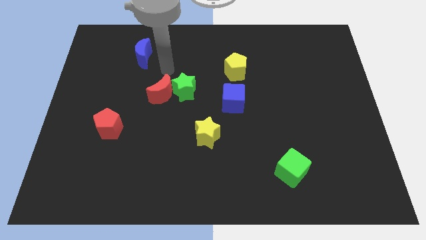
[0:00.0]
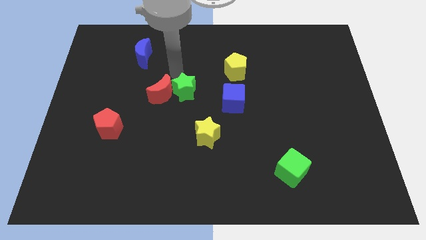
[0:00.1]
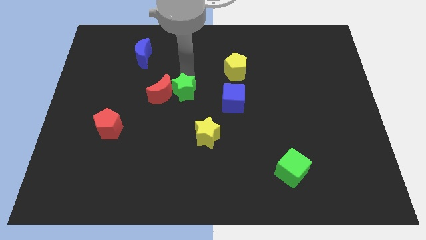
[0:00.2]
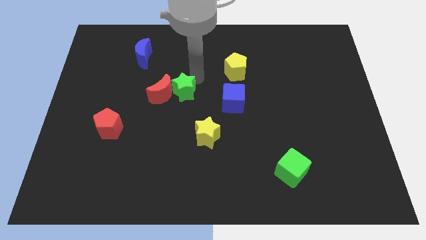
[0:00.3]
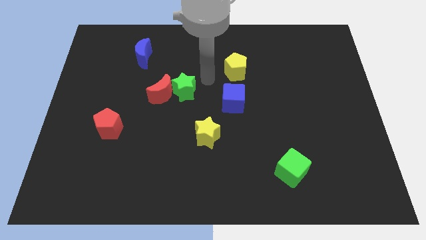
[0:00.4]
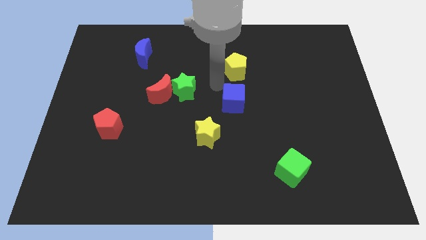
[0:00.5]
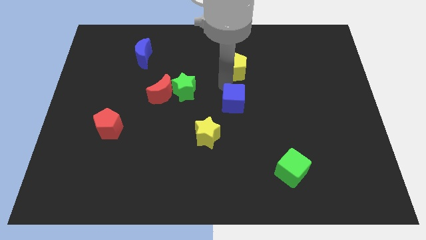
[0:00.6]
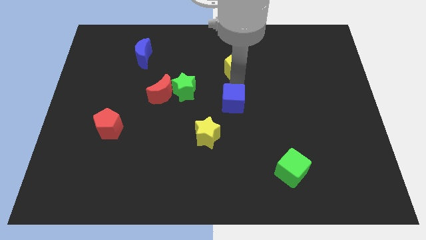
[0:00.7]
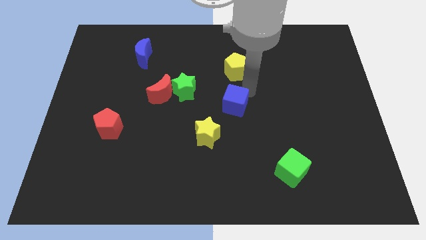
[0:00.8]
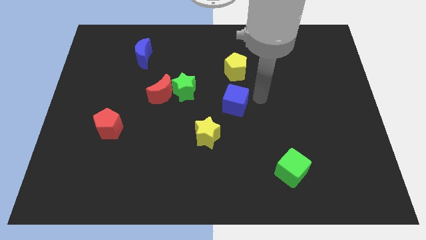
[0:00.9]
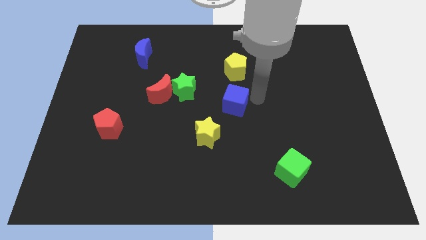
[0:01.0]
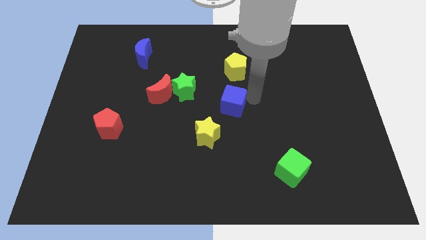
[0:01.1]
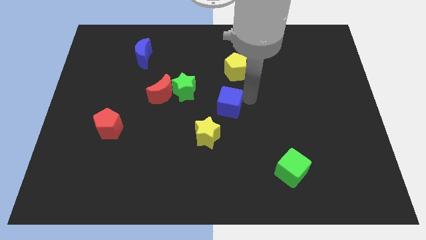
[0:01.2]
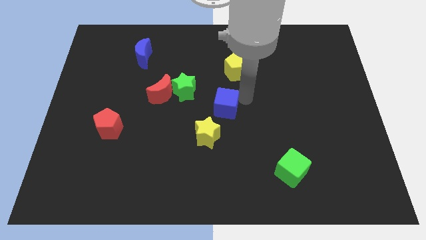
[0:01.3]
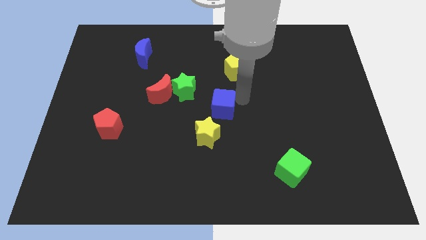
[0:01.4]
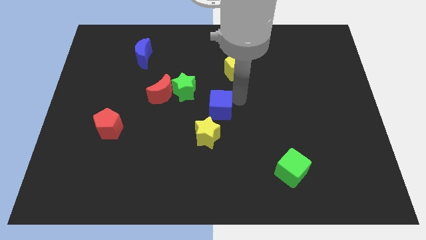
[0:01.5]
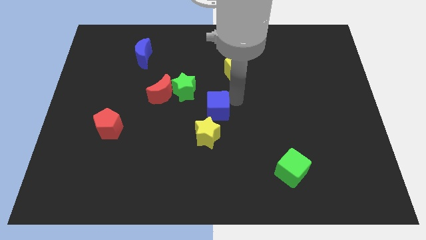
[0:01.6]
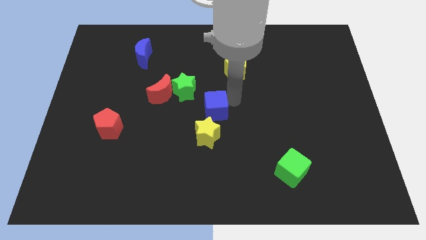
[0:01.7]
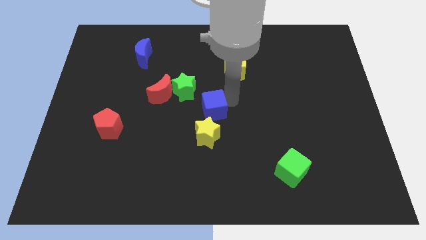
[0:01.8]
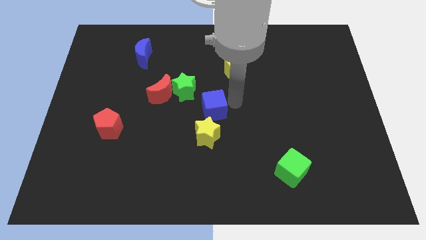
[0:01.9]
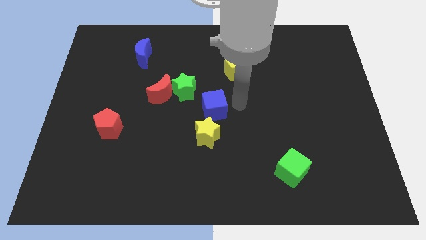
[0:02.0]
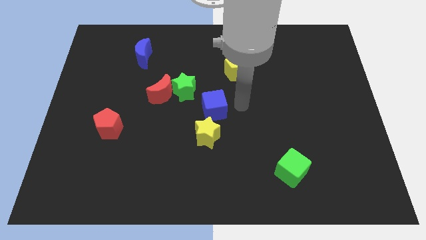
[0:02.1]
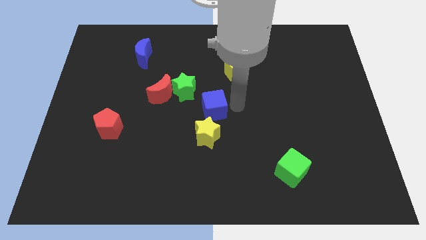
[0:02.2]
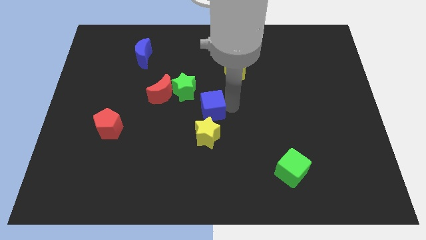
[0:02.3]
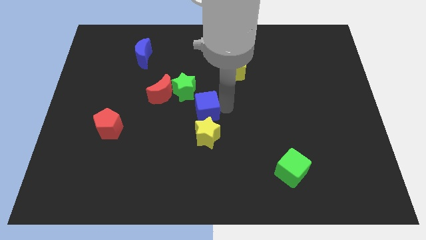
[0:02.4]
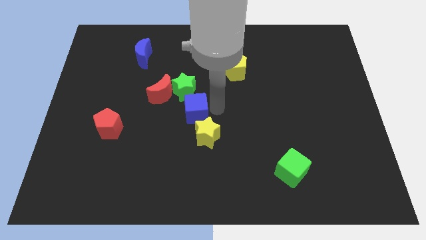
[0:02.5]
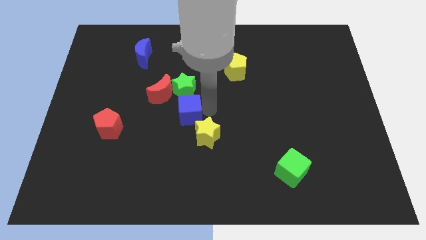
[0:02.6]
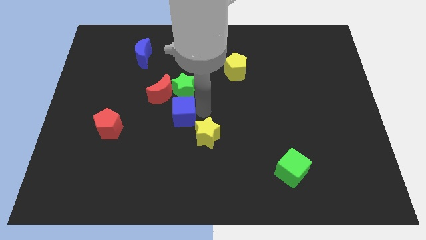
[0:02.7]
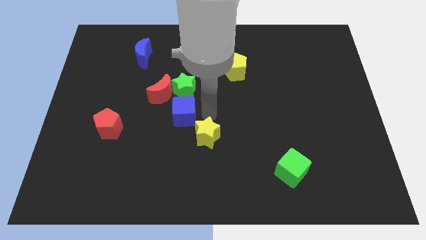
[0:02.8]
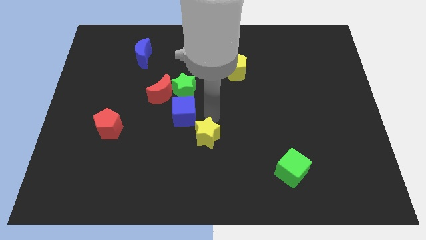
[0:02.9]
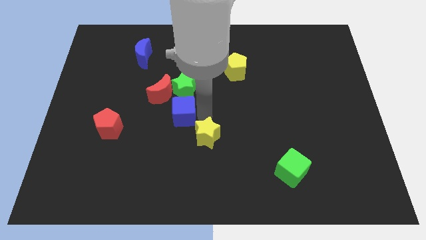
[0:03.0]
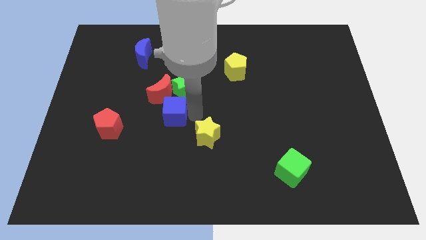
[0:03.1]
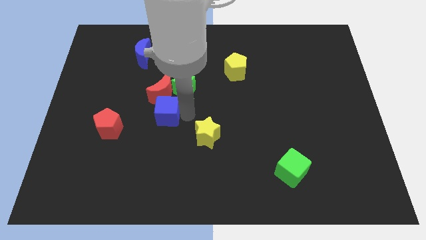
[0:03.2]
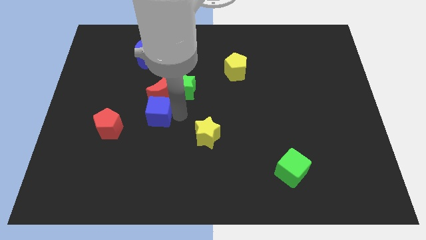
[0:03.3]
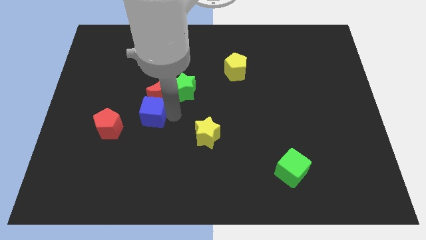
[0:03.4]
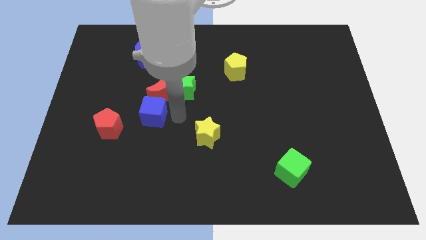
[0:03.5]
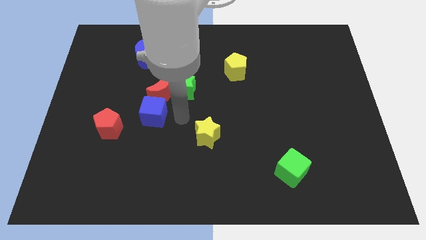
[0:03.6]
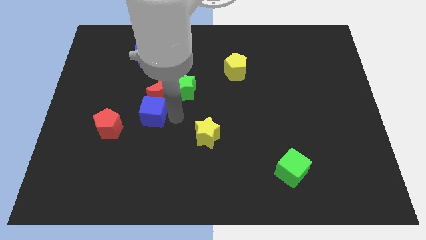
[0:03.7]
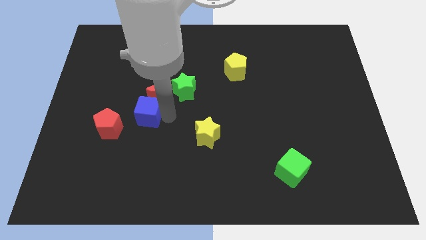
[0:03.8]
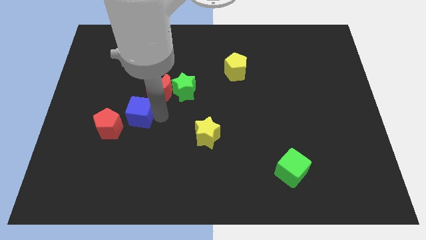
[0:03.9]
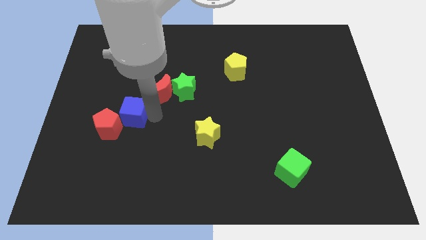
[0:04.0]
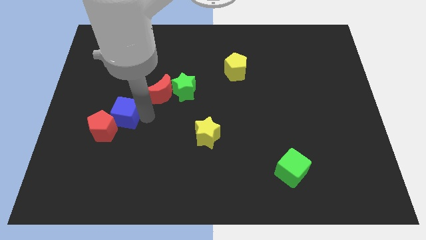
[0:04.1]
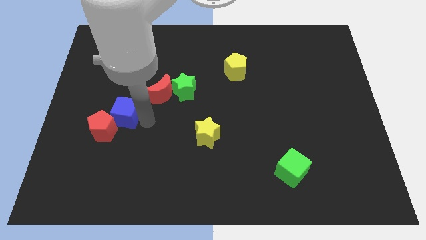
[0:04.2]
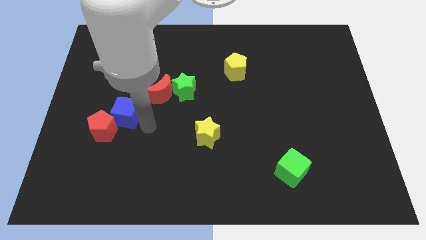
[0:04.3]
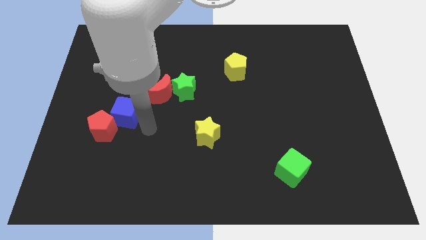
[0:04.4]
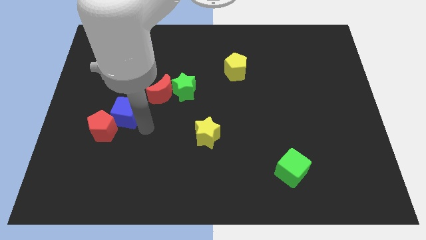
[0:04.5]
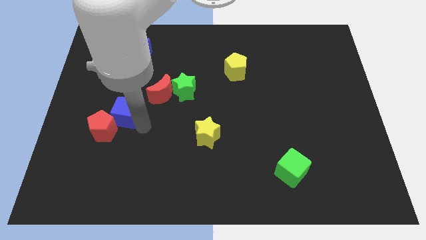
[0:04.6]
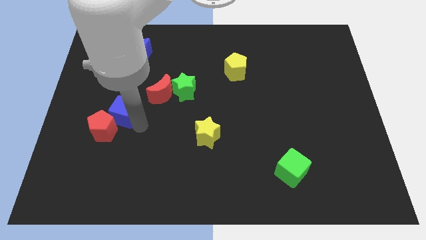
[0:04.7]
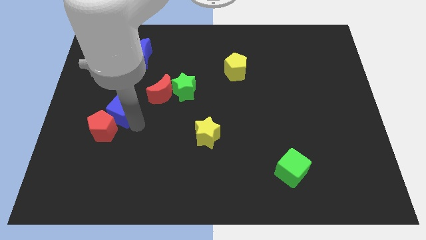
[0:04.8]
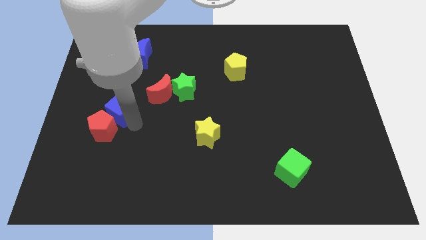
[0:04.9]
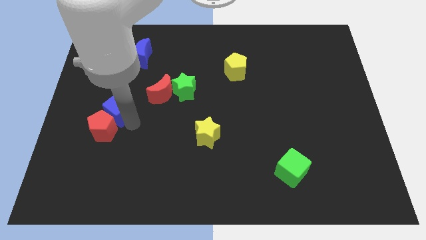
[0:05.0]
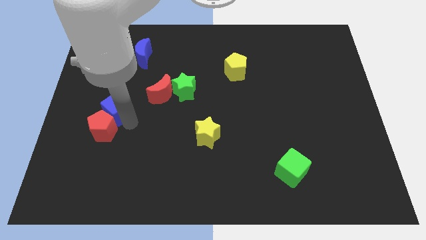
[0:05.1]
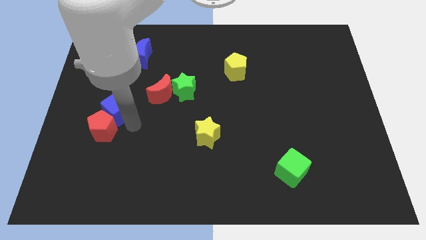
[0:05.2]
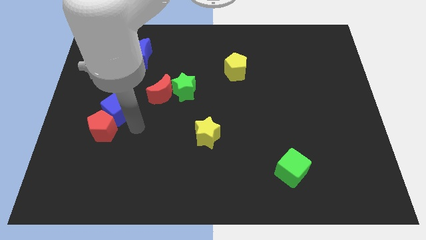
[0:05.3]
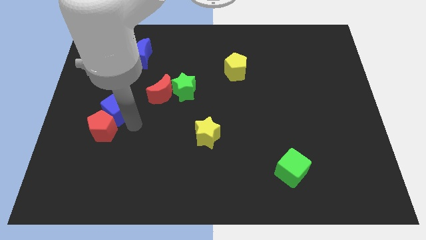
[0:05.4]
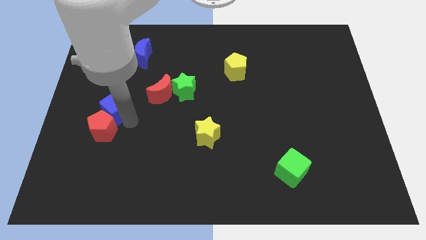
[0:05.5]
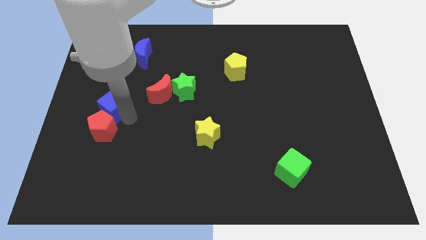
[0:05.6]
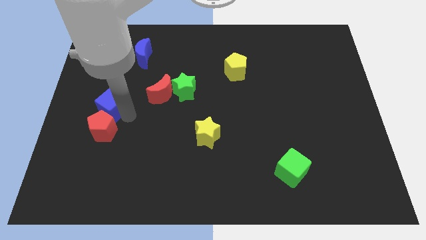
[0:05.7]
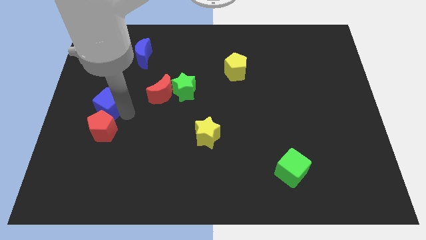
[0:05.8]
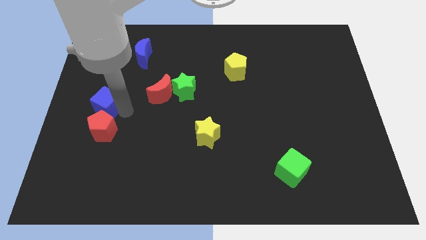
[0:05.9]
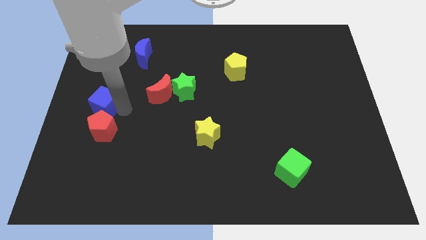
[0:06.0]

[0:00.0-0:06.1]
push the blue cube to the left side
